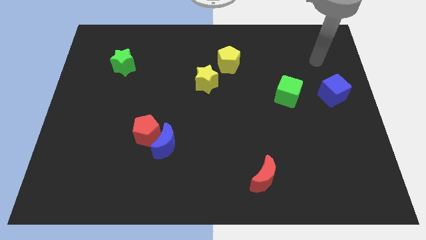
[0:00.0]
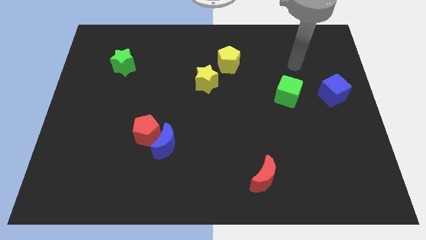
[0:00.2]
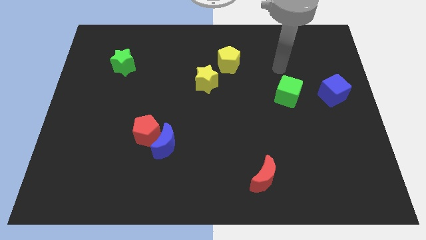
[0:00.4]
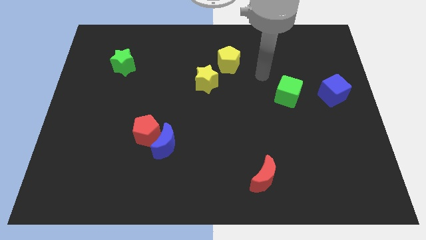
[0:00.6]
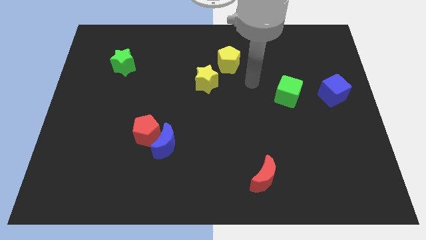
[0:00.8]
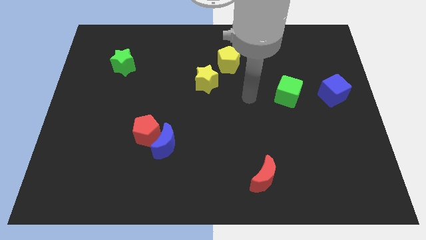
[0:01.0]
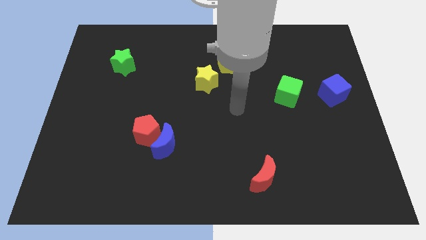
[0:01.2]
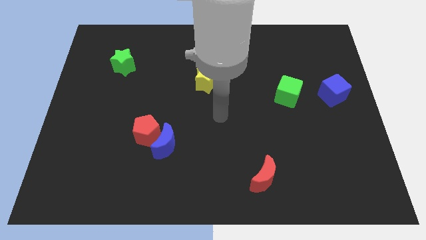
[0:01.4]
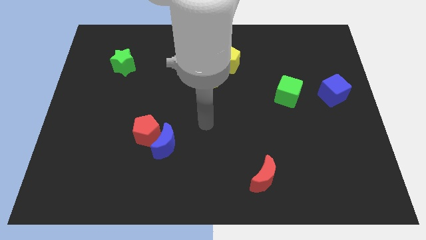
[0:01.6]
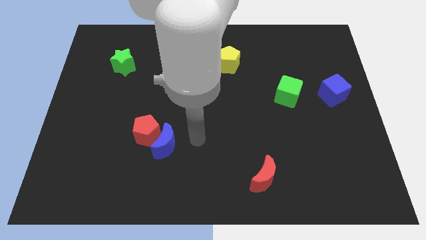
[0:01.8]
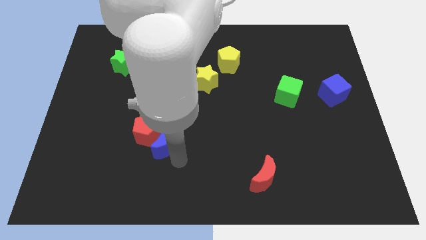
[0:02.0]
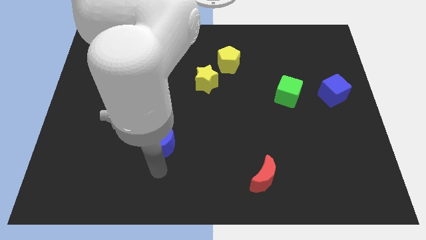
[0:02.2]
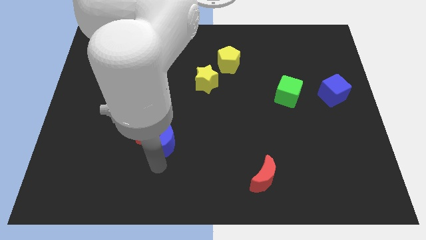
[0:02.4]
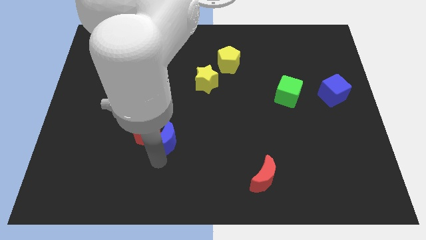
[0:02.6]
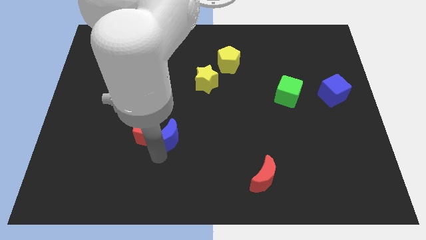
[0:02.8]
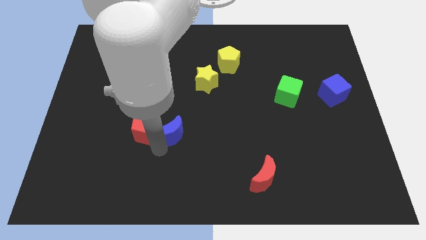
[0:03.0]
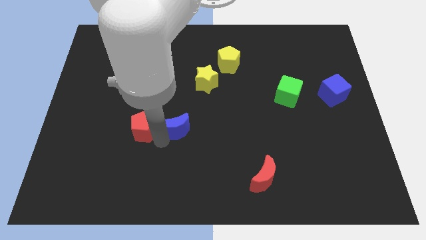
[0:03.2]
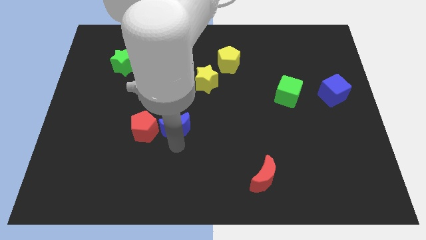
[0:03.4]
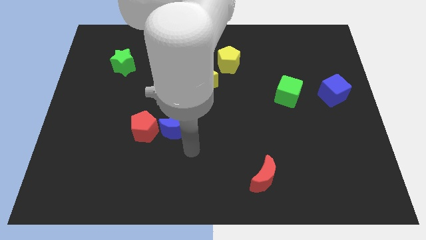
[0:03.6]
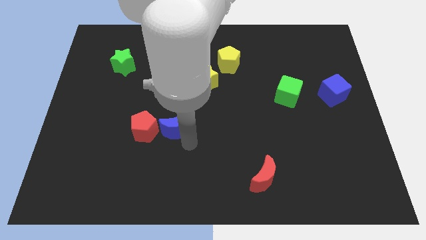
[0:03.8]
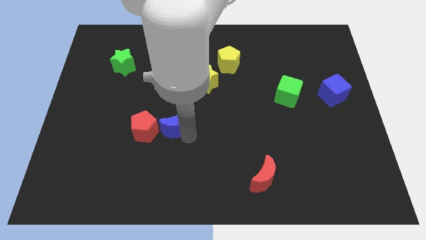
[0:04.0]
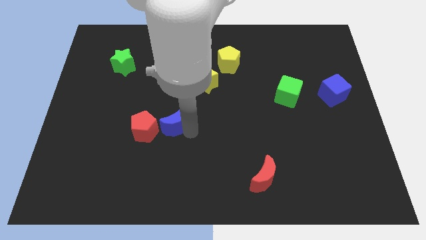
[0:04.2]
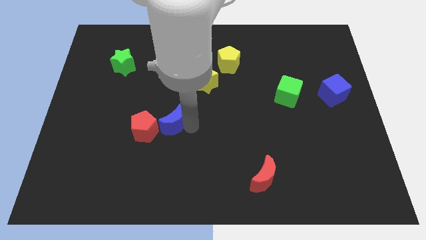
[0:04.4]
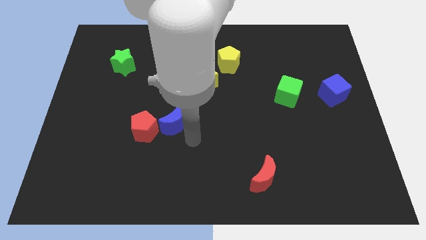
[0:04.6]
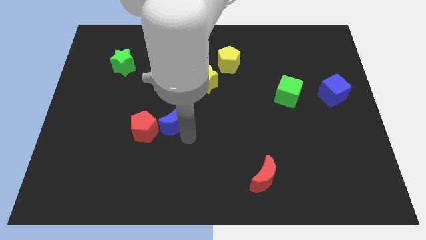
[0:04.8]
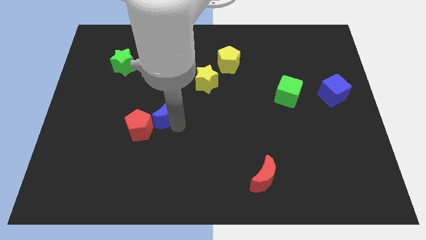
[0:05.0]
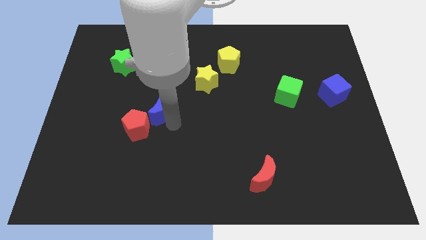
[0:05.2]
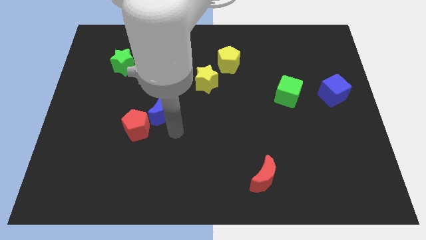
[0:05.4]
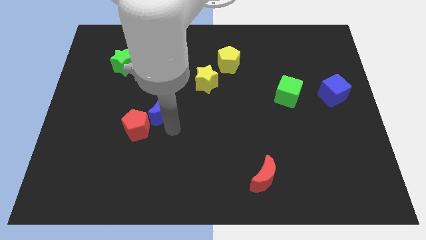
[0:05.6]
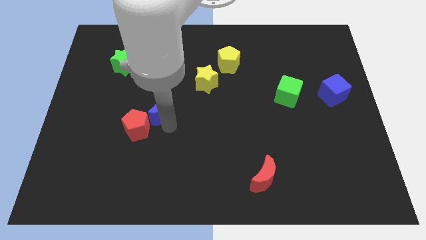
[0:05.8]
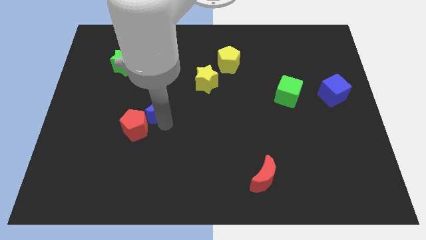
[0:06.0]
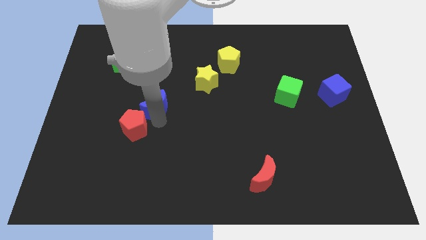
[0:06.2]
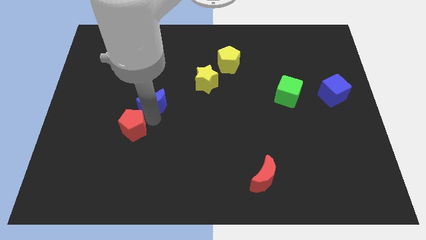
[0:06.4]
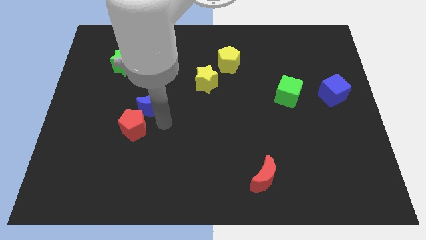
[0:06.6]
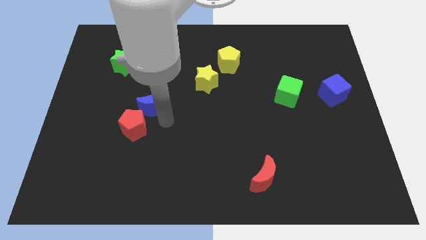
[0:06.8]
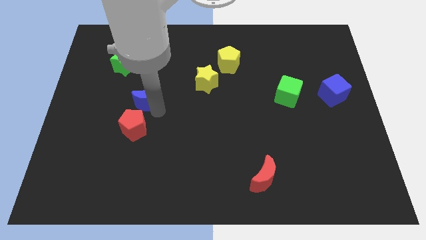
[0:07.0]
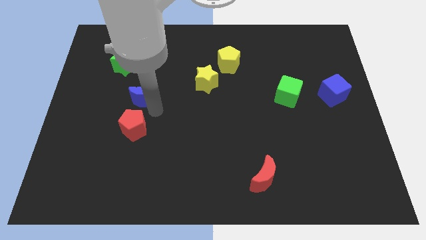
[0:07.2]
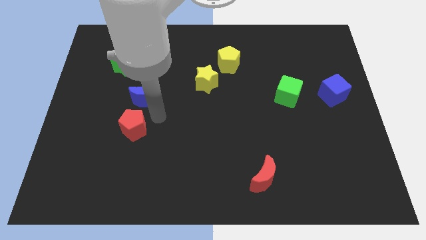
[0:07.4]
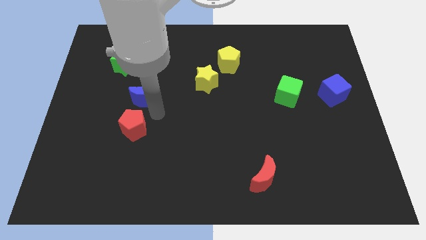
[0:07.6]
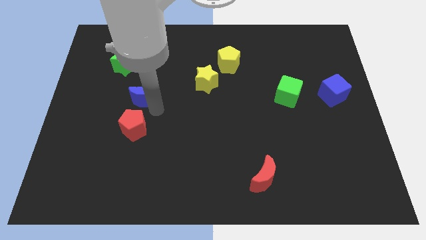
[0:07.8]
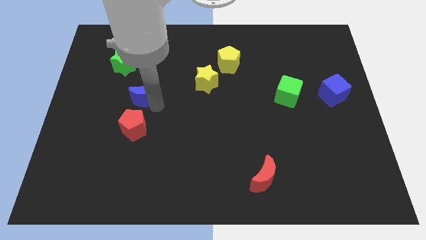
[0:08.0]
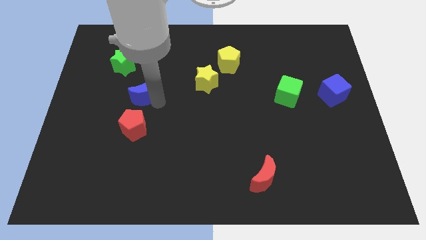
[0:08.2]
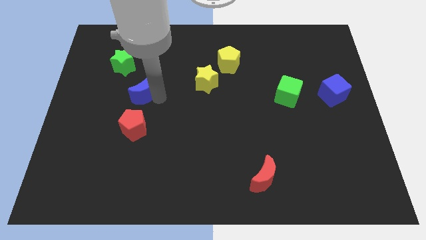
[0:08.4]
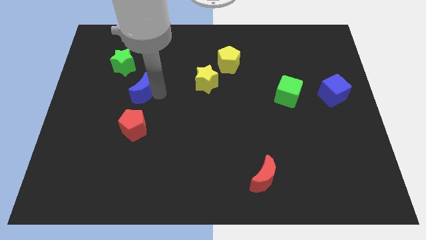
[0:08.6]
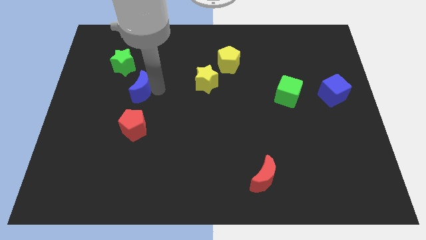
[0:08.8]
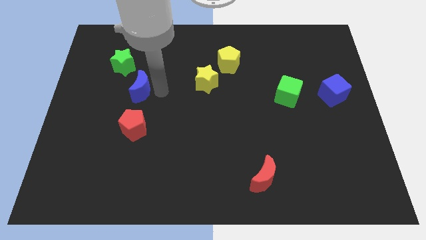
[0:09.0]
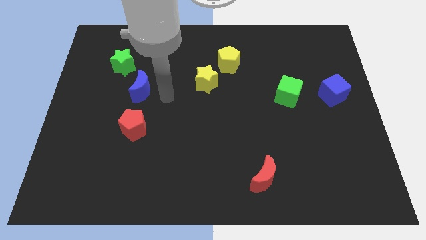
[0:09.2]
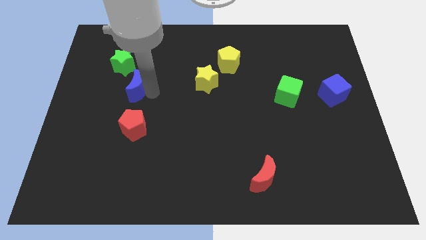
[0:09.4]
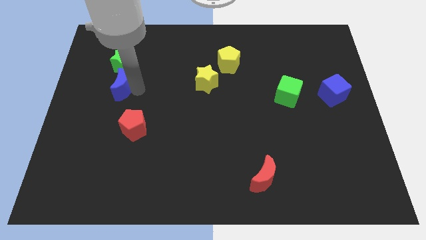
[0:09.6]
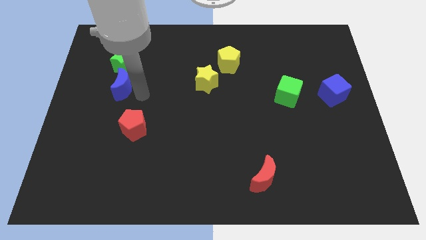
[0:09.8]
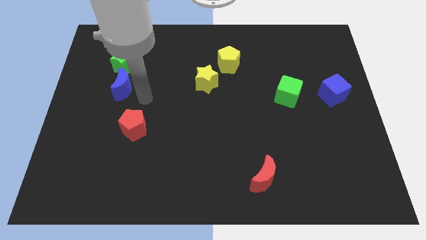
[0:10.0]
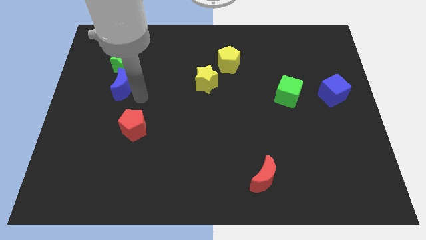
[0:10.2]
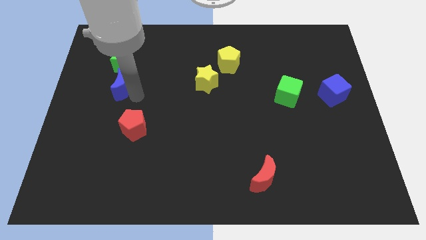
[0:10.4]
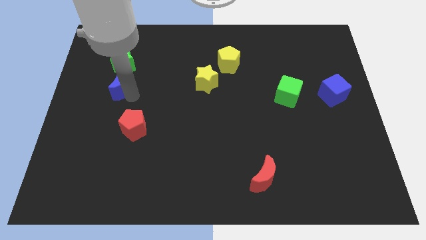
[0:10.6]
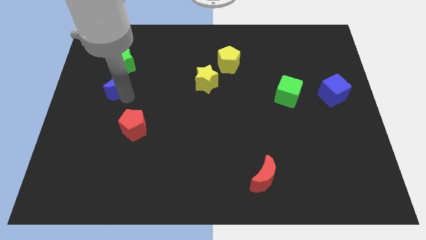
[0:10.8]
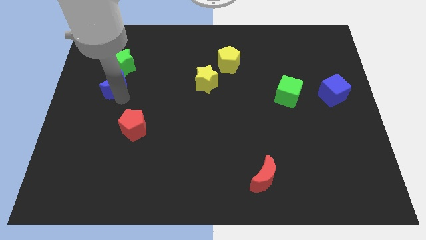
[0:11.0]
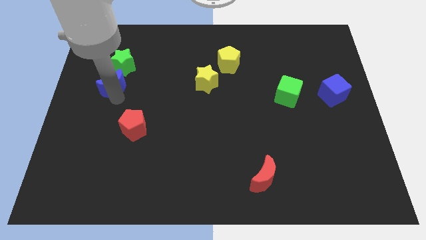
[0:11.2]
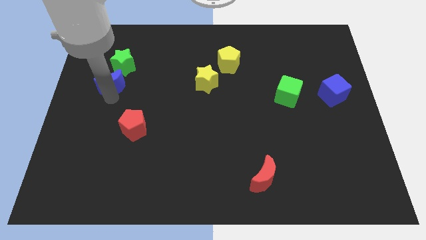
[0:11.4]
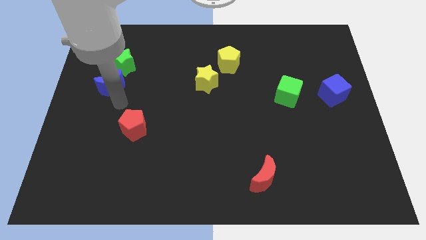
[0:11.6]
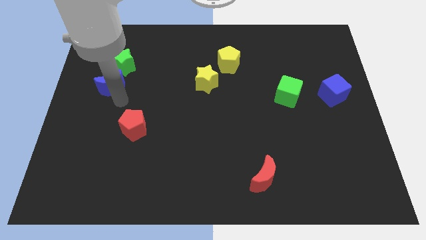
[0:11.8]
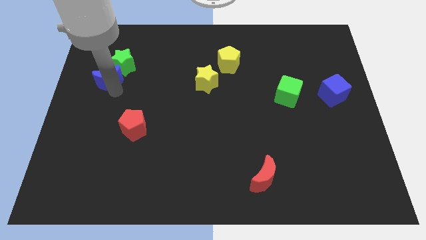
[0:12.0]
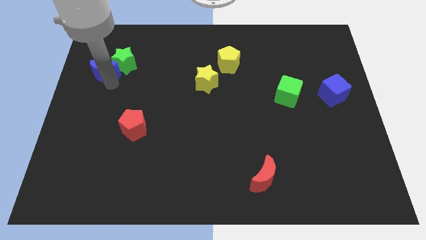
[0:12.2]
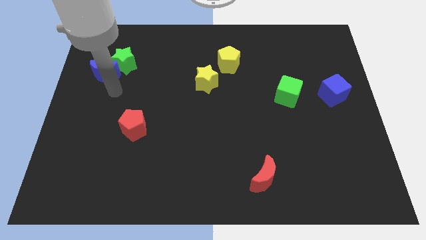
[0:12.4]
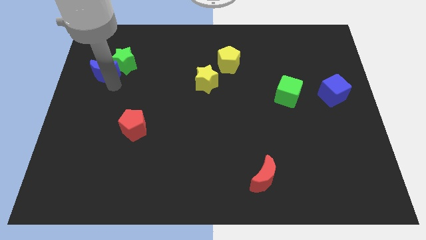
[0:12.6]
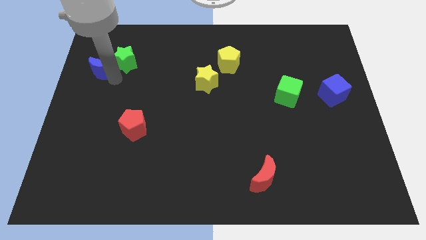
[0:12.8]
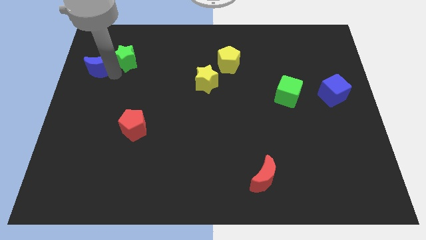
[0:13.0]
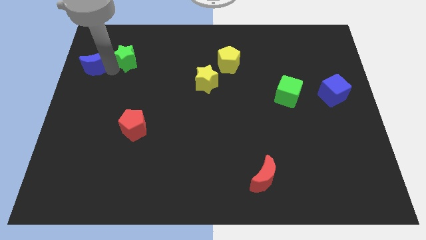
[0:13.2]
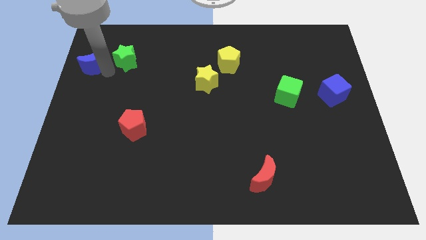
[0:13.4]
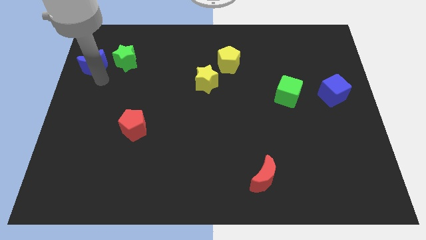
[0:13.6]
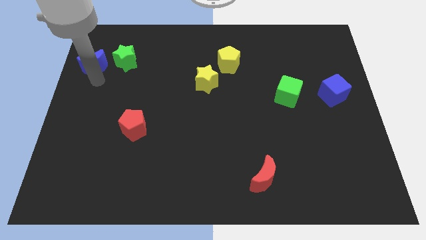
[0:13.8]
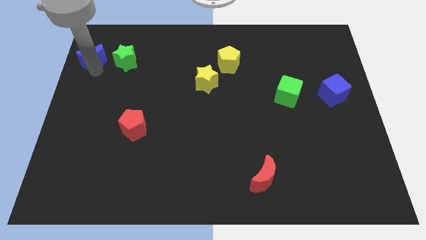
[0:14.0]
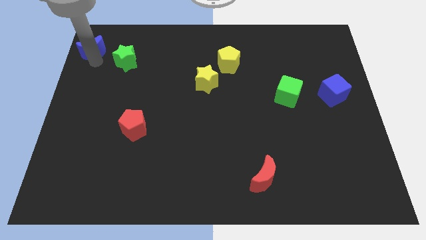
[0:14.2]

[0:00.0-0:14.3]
slide the blue moon to the top left corner
